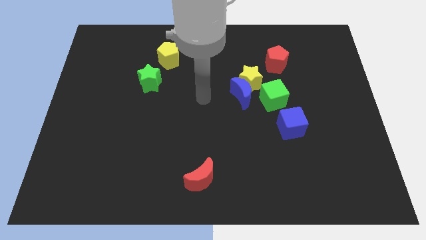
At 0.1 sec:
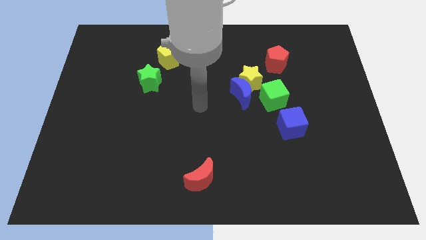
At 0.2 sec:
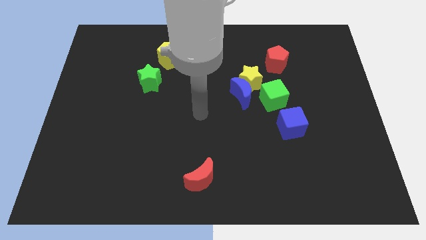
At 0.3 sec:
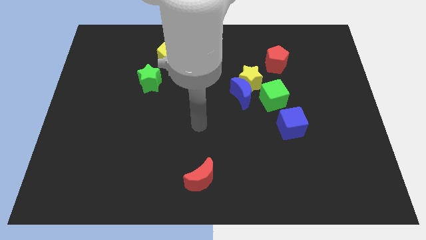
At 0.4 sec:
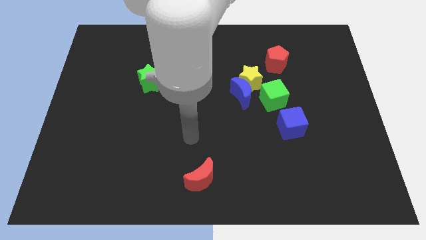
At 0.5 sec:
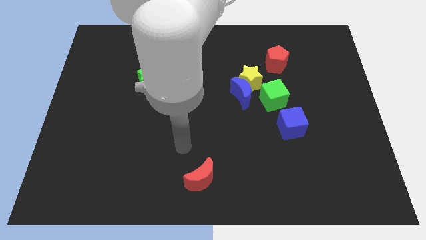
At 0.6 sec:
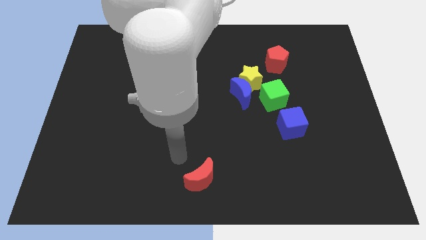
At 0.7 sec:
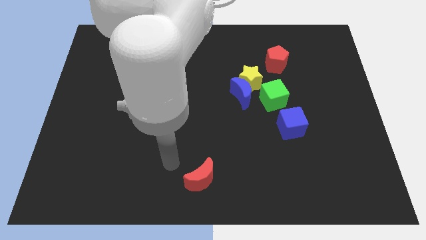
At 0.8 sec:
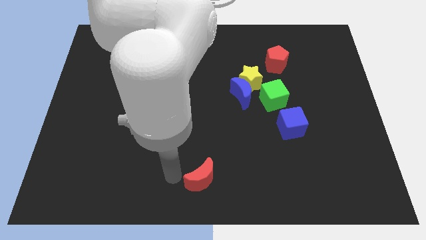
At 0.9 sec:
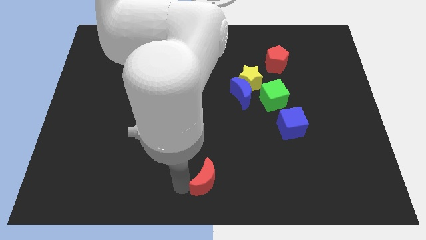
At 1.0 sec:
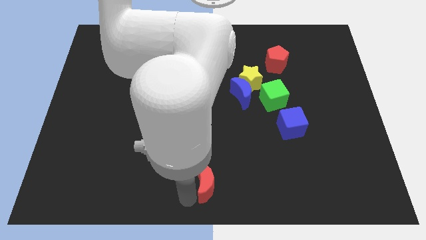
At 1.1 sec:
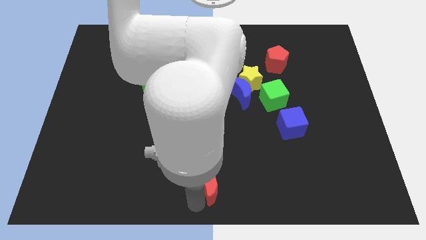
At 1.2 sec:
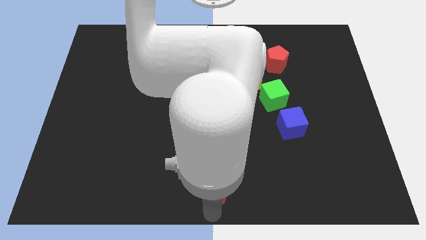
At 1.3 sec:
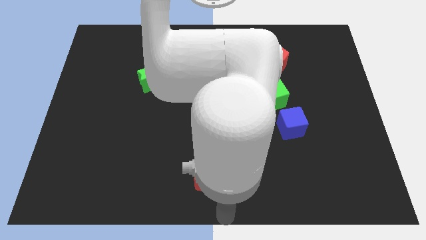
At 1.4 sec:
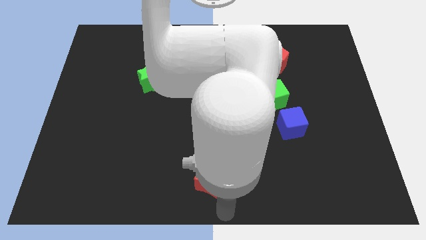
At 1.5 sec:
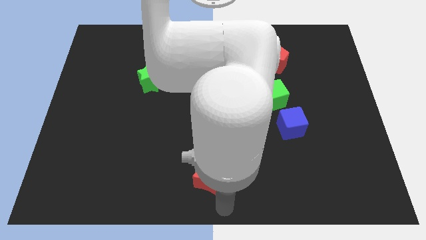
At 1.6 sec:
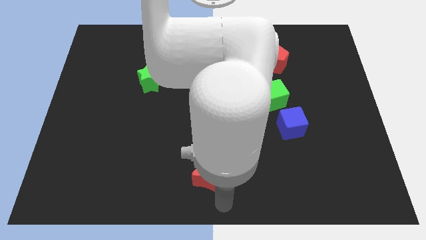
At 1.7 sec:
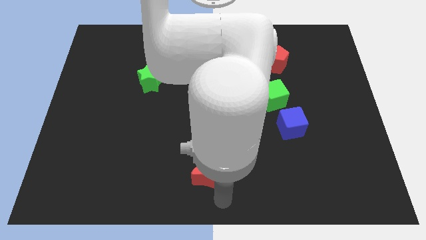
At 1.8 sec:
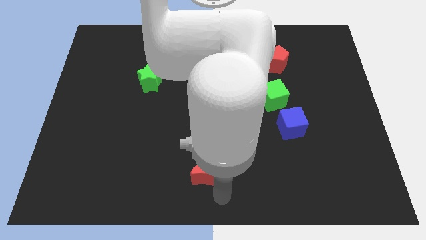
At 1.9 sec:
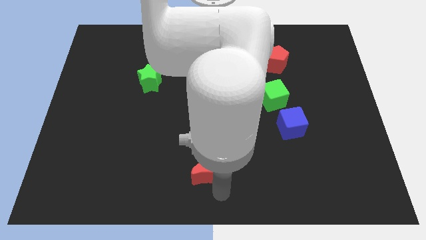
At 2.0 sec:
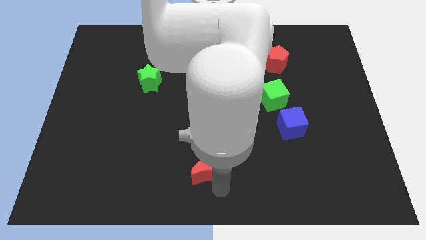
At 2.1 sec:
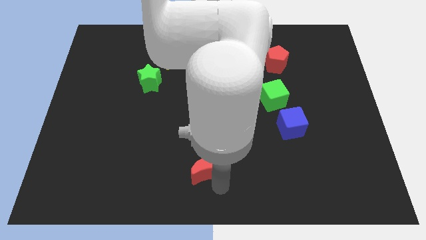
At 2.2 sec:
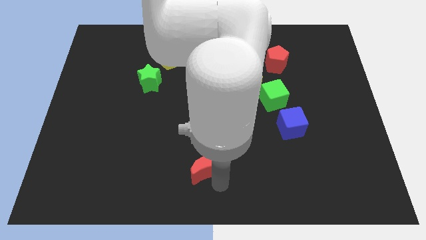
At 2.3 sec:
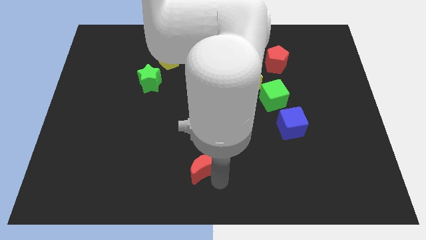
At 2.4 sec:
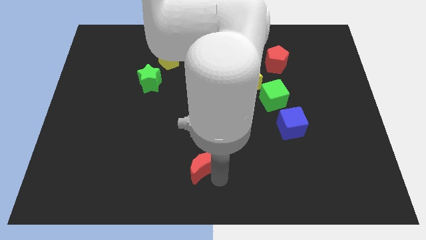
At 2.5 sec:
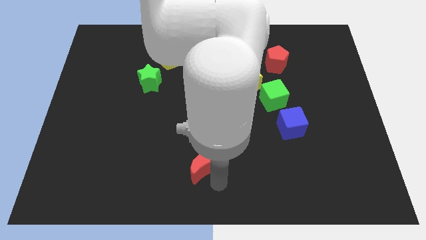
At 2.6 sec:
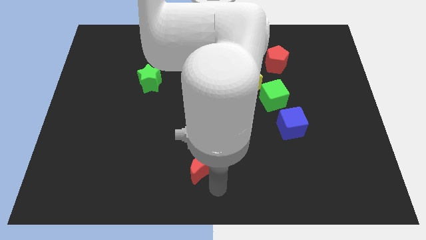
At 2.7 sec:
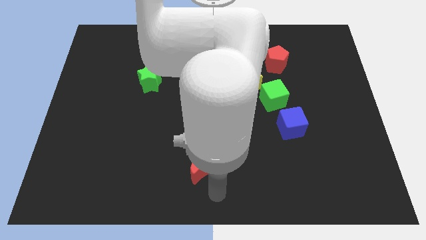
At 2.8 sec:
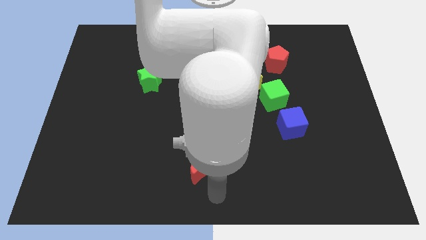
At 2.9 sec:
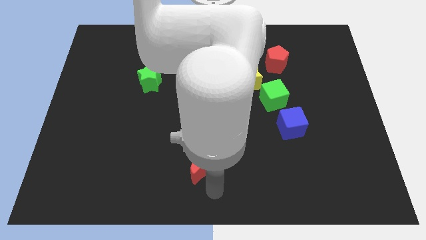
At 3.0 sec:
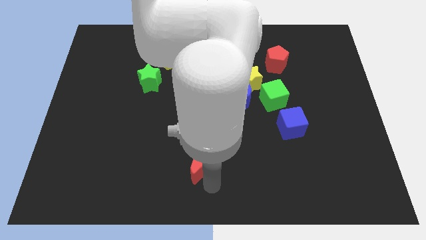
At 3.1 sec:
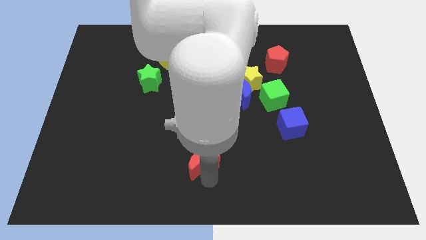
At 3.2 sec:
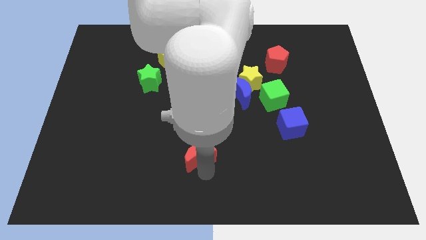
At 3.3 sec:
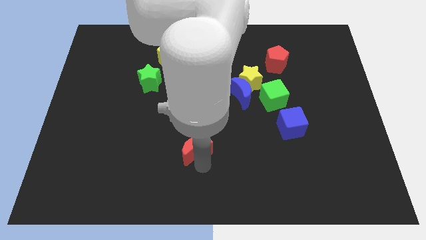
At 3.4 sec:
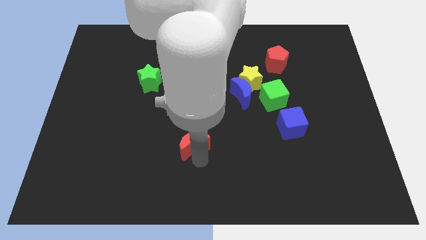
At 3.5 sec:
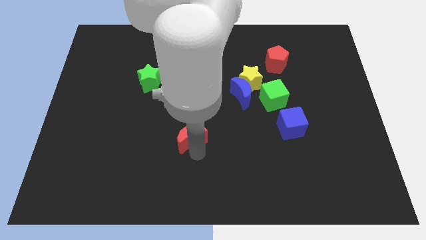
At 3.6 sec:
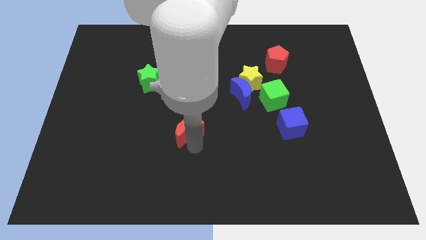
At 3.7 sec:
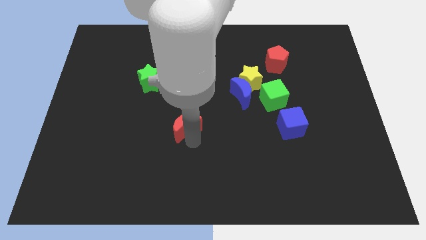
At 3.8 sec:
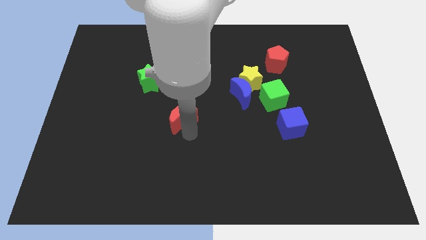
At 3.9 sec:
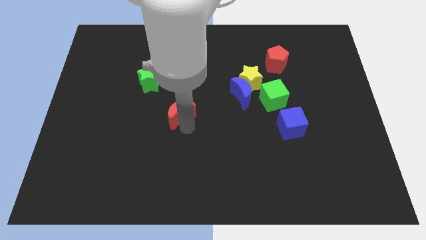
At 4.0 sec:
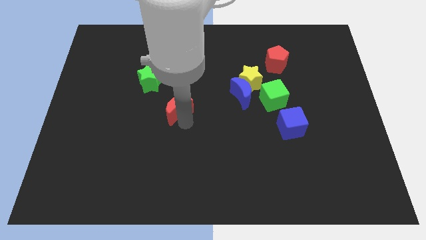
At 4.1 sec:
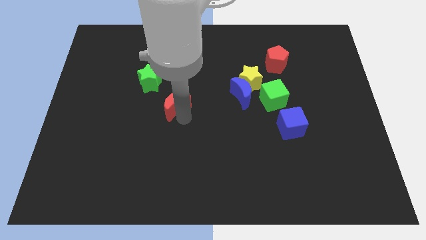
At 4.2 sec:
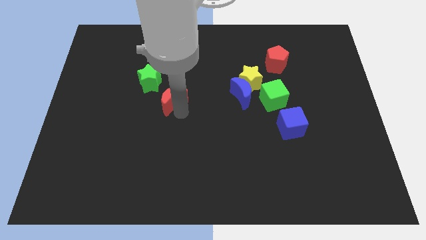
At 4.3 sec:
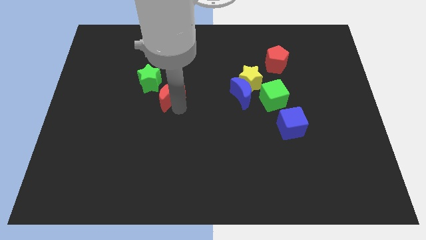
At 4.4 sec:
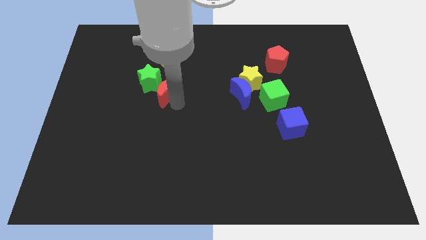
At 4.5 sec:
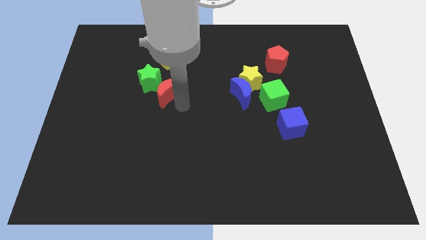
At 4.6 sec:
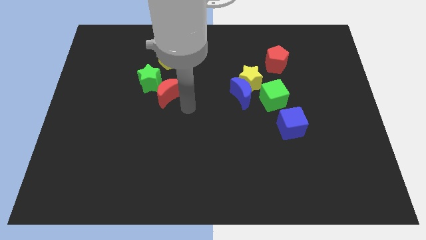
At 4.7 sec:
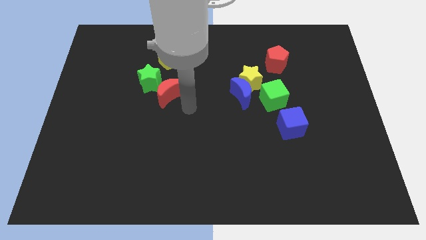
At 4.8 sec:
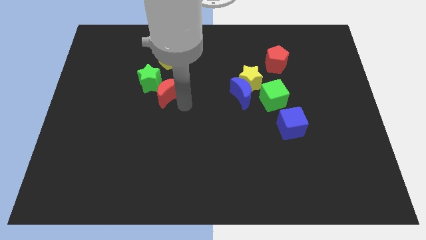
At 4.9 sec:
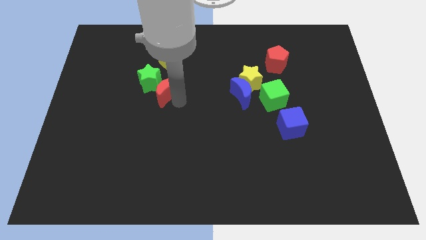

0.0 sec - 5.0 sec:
move the red moon next to the green star

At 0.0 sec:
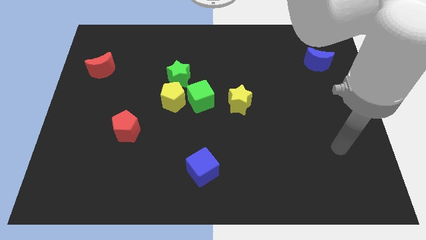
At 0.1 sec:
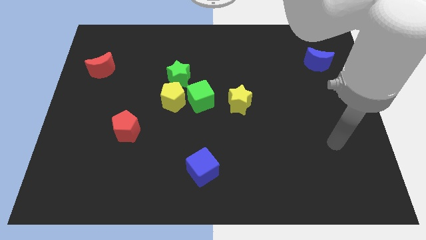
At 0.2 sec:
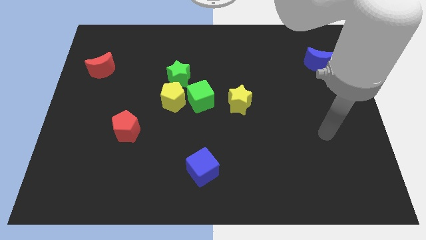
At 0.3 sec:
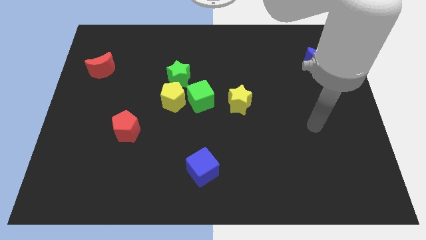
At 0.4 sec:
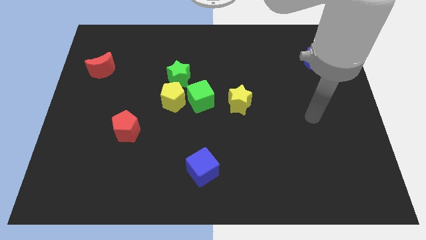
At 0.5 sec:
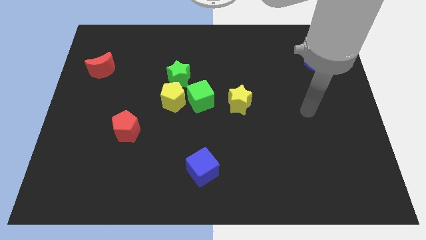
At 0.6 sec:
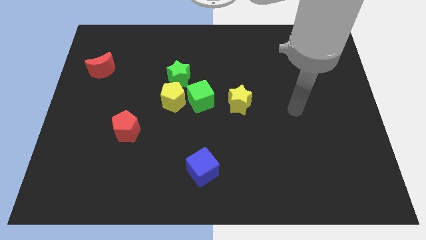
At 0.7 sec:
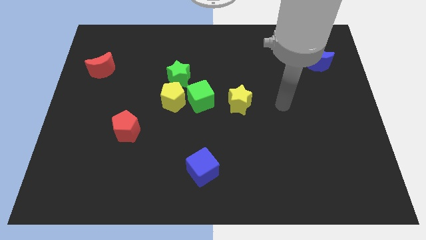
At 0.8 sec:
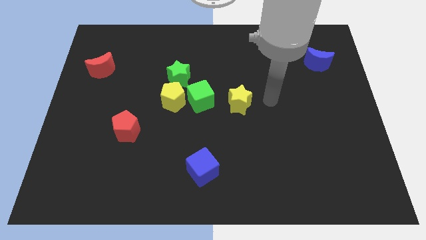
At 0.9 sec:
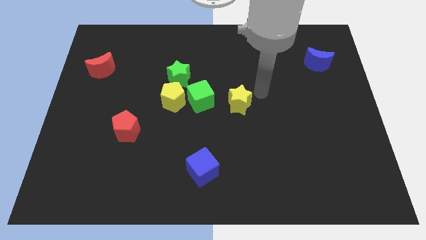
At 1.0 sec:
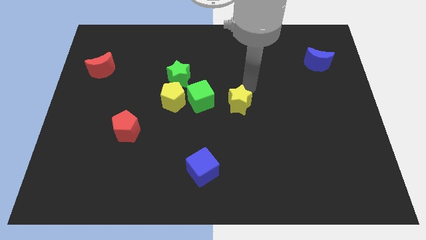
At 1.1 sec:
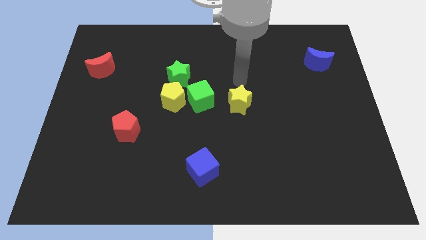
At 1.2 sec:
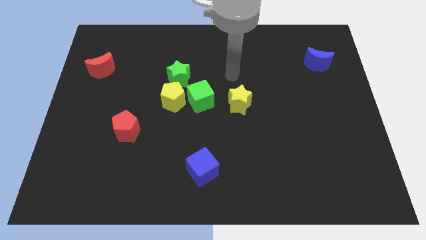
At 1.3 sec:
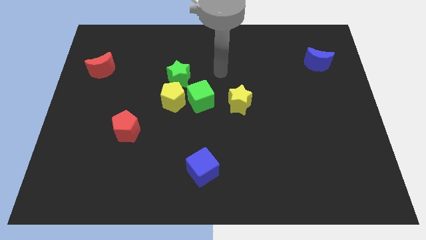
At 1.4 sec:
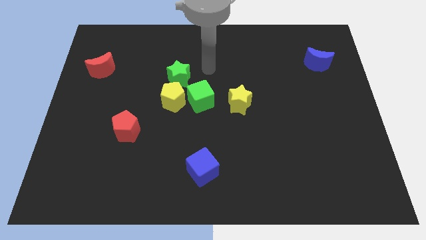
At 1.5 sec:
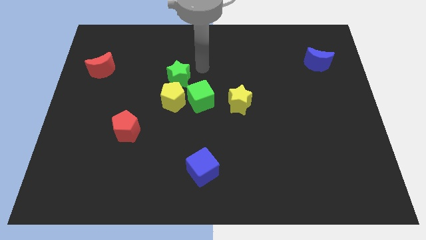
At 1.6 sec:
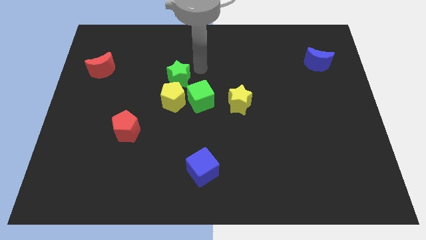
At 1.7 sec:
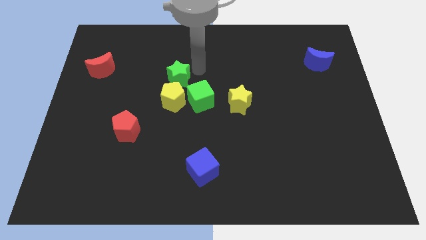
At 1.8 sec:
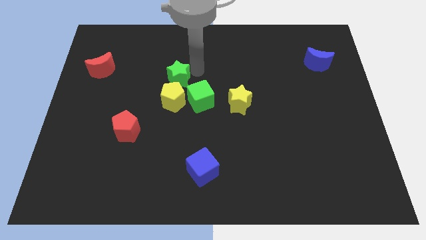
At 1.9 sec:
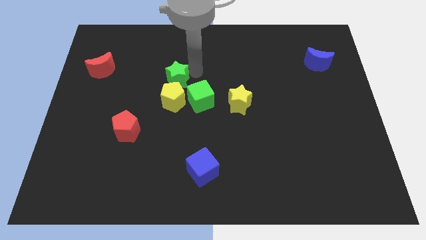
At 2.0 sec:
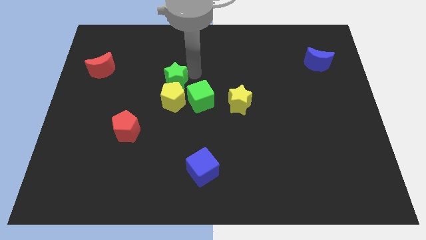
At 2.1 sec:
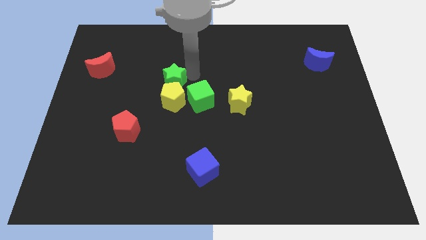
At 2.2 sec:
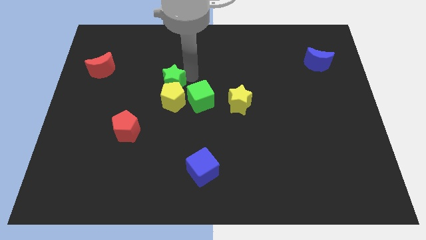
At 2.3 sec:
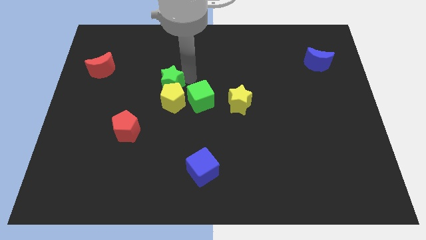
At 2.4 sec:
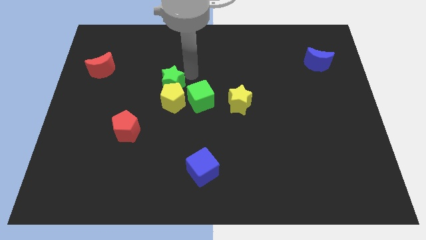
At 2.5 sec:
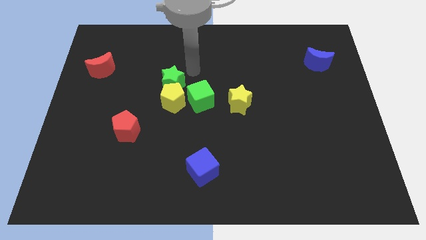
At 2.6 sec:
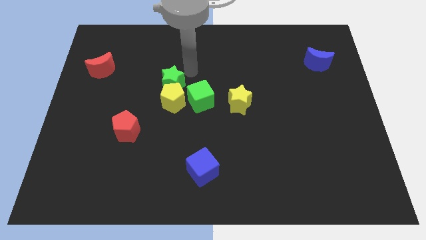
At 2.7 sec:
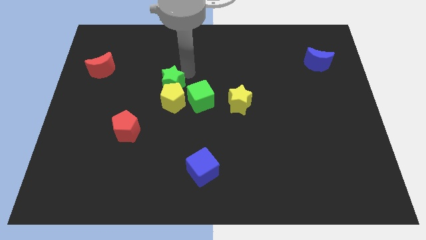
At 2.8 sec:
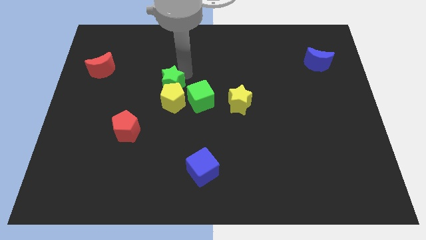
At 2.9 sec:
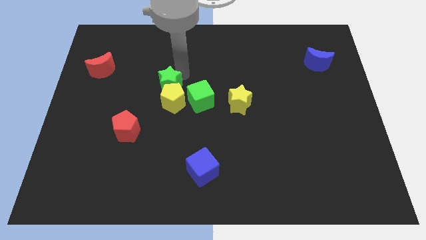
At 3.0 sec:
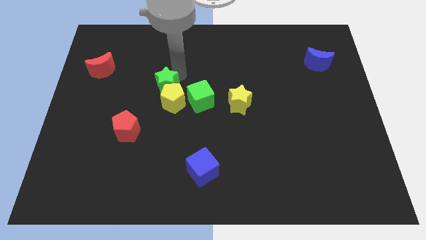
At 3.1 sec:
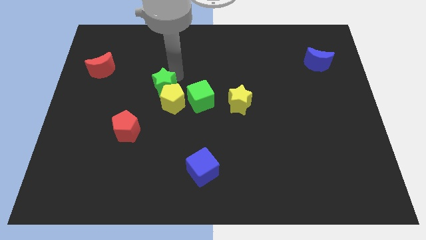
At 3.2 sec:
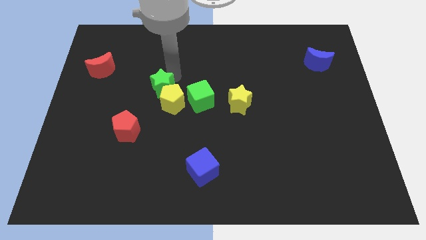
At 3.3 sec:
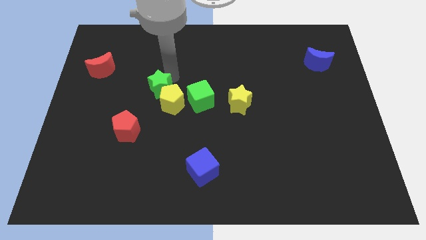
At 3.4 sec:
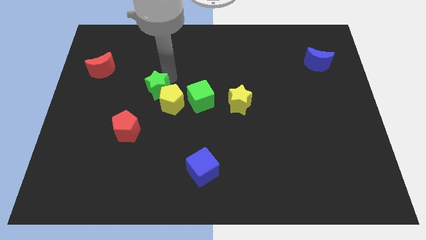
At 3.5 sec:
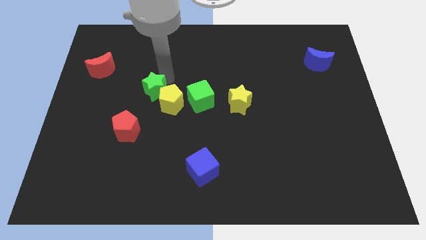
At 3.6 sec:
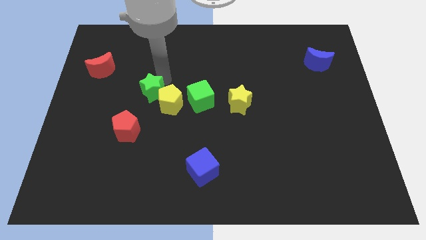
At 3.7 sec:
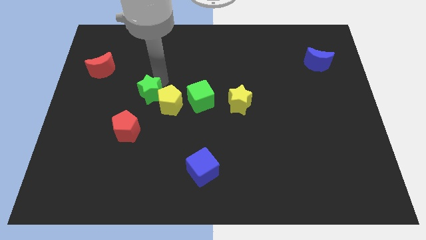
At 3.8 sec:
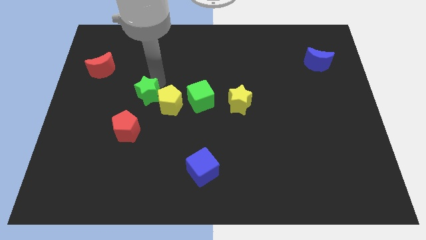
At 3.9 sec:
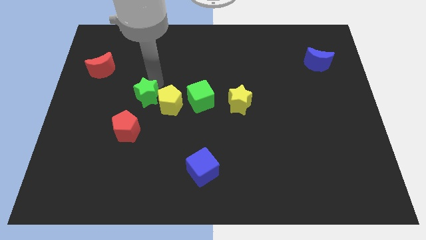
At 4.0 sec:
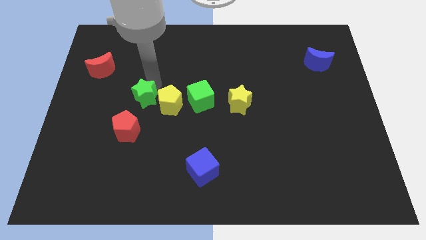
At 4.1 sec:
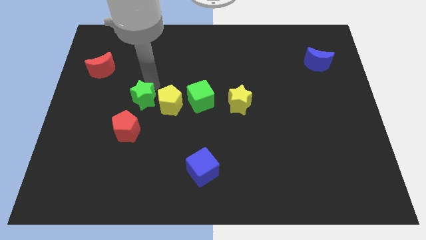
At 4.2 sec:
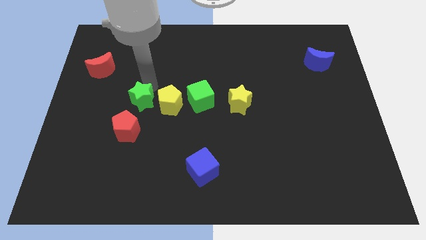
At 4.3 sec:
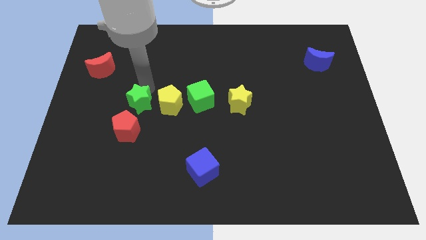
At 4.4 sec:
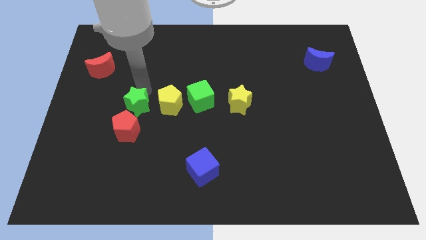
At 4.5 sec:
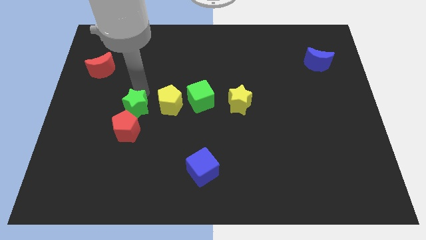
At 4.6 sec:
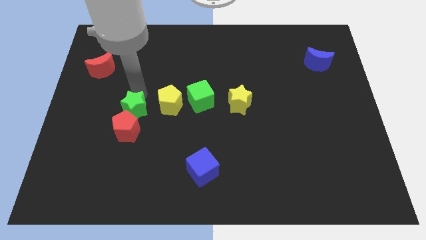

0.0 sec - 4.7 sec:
put the green star to the red pentagon
